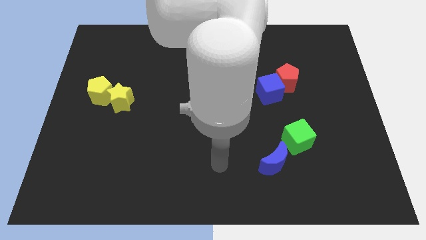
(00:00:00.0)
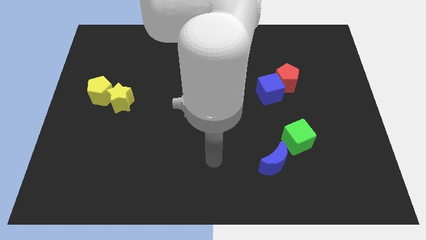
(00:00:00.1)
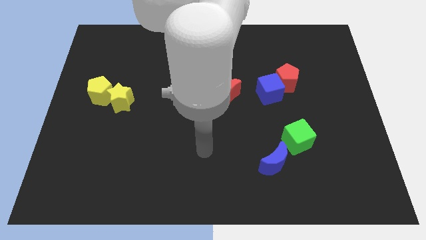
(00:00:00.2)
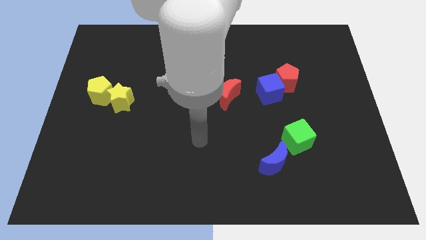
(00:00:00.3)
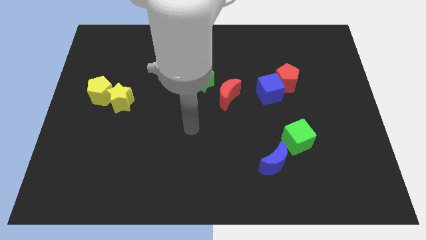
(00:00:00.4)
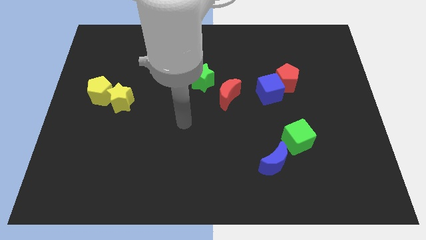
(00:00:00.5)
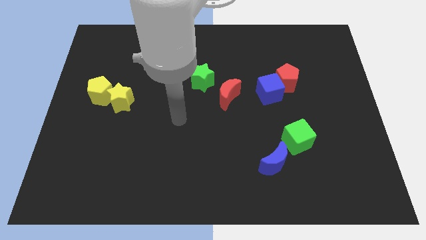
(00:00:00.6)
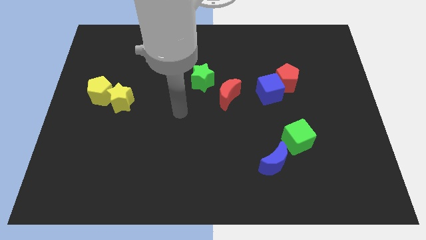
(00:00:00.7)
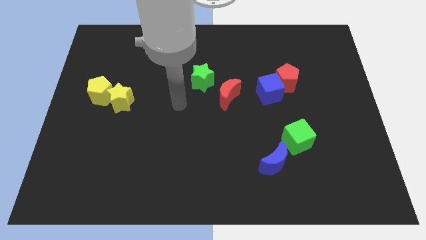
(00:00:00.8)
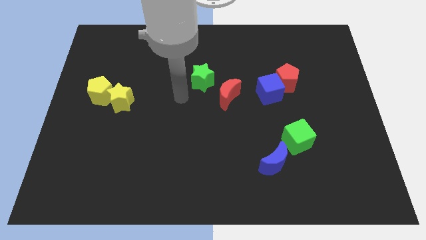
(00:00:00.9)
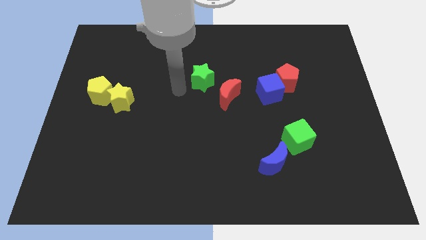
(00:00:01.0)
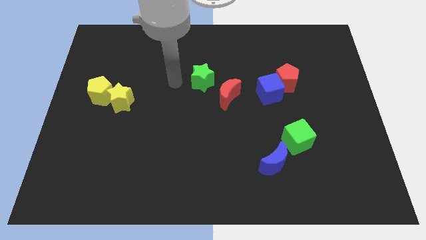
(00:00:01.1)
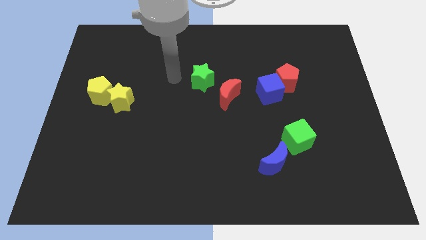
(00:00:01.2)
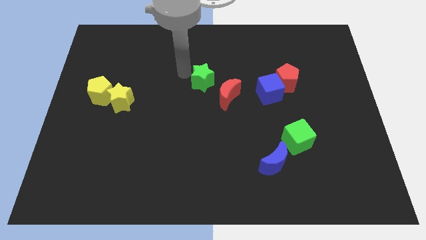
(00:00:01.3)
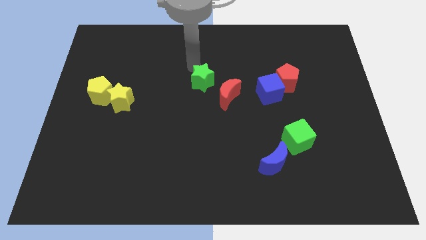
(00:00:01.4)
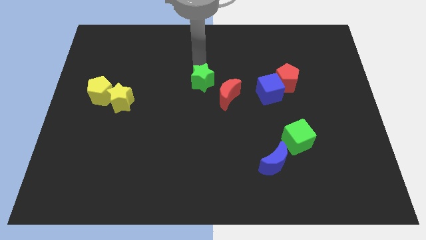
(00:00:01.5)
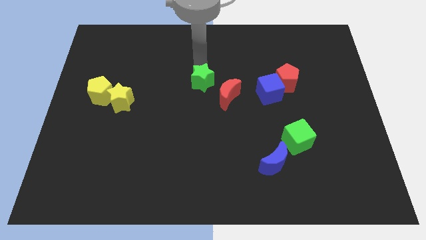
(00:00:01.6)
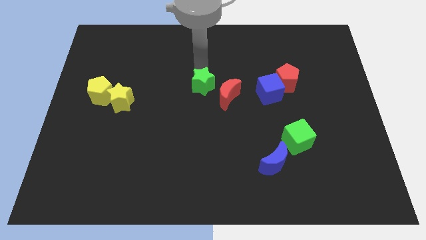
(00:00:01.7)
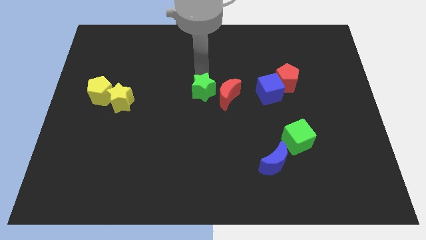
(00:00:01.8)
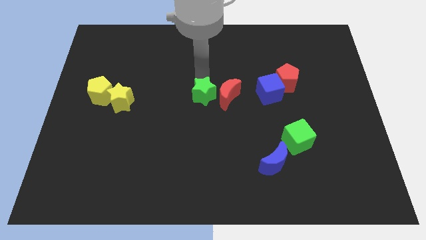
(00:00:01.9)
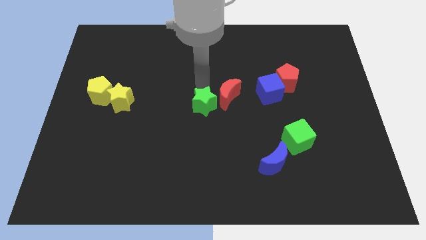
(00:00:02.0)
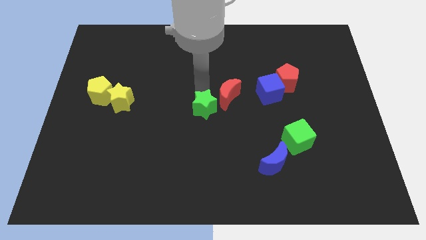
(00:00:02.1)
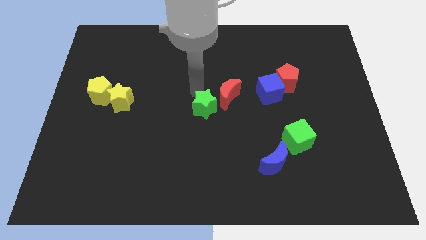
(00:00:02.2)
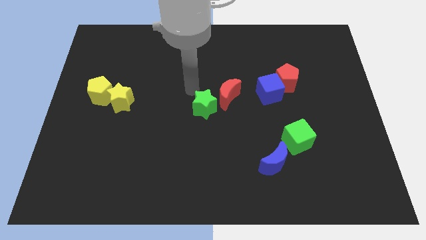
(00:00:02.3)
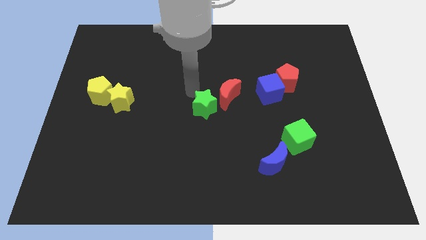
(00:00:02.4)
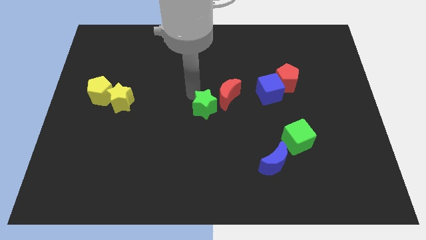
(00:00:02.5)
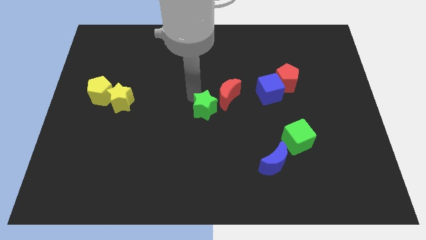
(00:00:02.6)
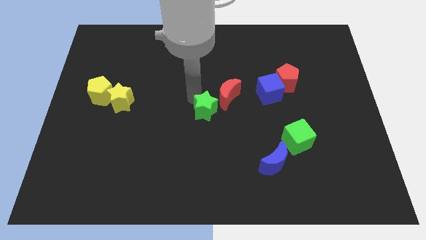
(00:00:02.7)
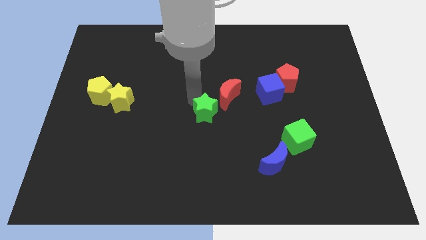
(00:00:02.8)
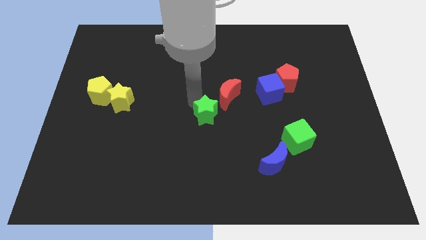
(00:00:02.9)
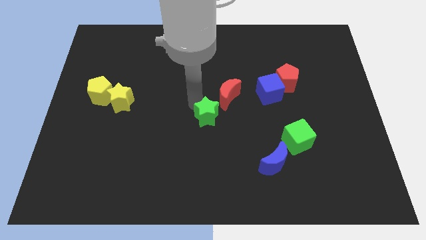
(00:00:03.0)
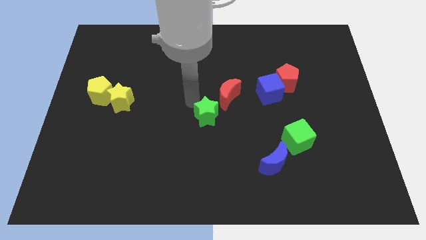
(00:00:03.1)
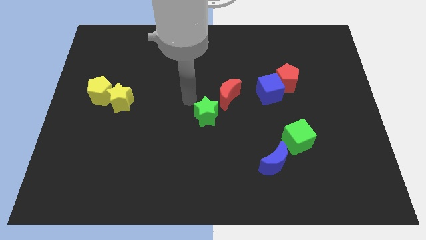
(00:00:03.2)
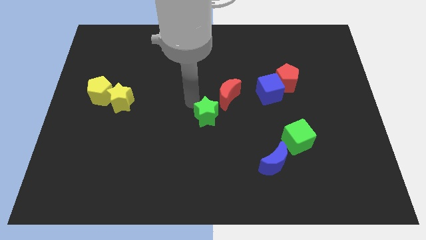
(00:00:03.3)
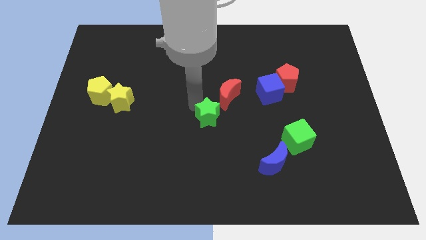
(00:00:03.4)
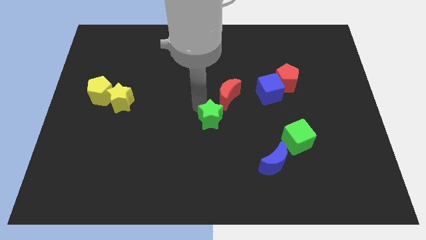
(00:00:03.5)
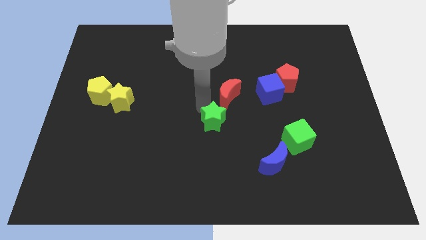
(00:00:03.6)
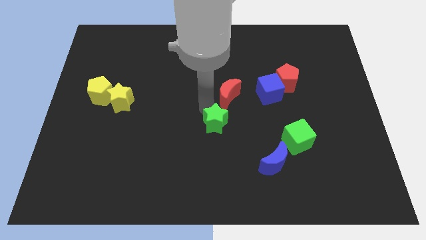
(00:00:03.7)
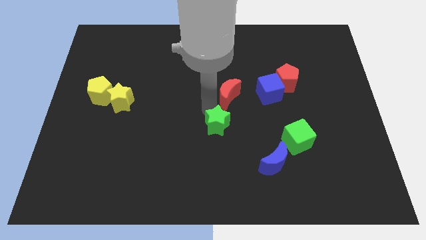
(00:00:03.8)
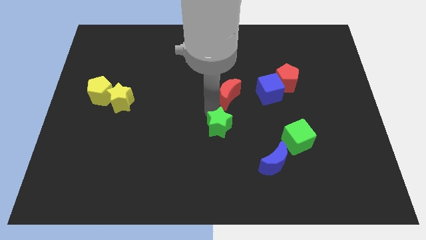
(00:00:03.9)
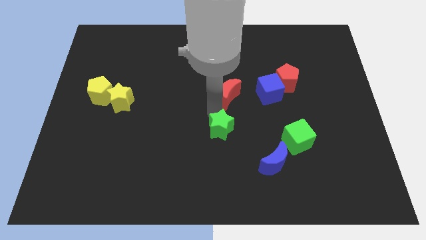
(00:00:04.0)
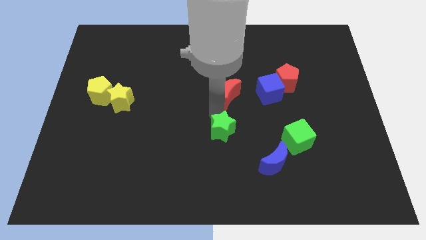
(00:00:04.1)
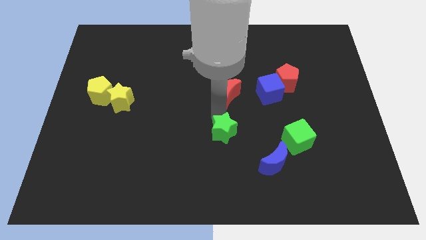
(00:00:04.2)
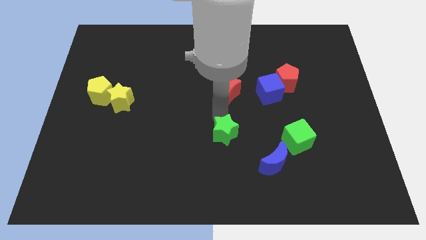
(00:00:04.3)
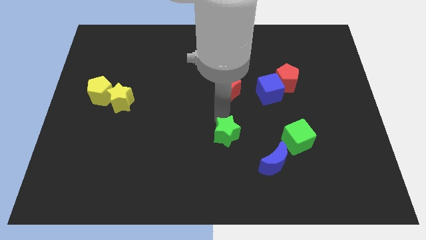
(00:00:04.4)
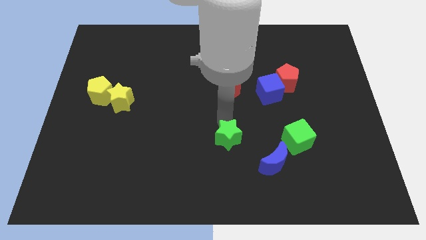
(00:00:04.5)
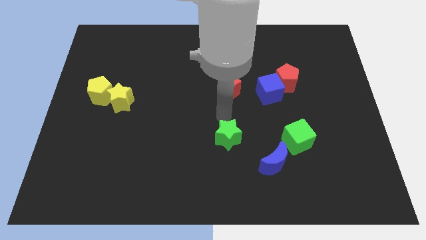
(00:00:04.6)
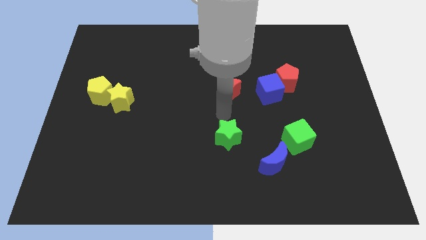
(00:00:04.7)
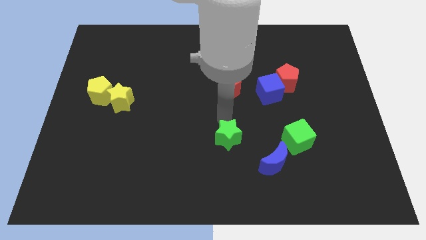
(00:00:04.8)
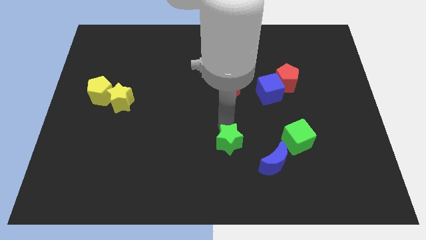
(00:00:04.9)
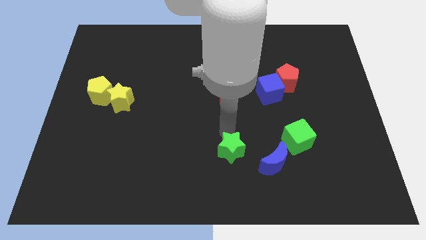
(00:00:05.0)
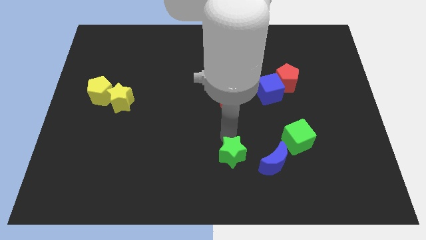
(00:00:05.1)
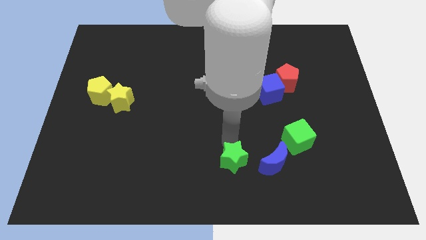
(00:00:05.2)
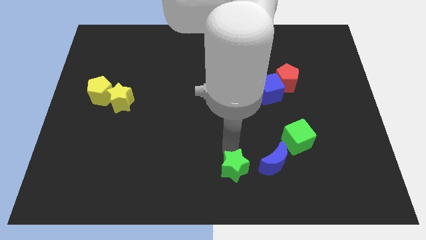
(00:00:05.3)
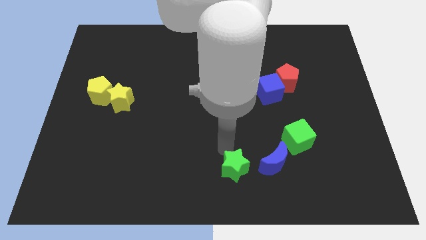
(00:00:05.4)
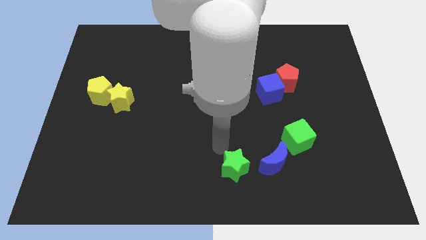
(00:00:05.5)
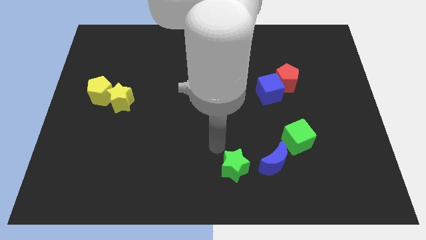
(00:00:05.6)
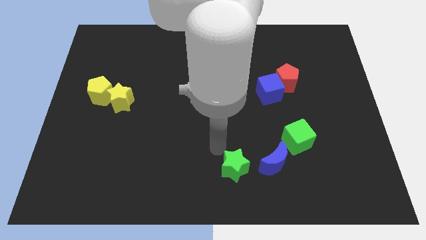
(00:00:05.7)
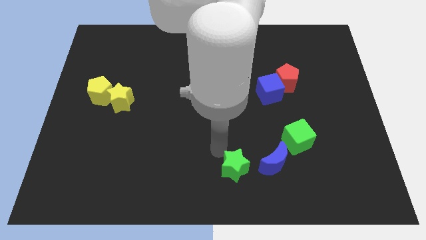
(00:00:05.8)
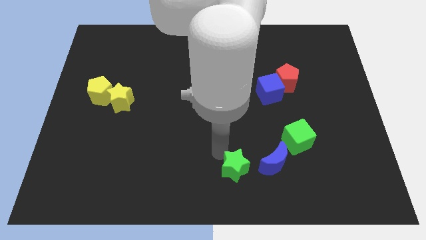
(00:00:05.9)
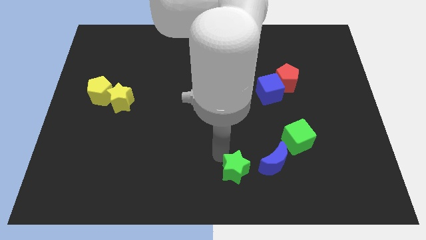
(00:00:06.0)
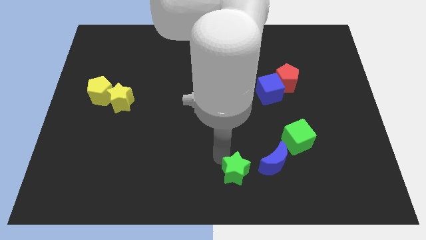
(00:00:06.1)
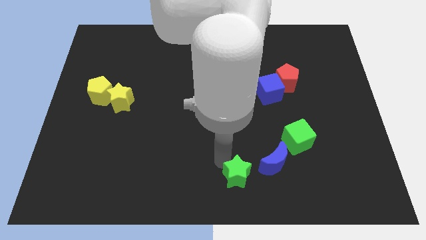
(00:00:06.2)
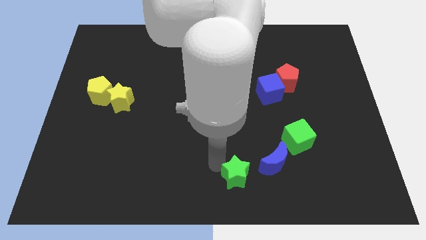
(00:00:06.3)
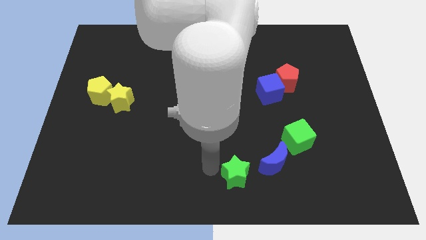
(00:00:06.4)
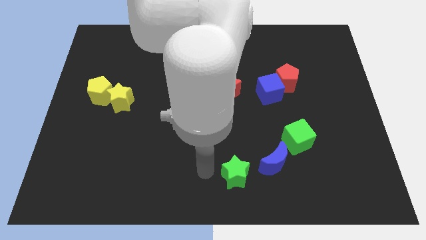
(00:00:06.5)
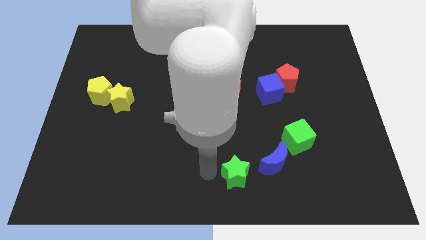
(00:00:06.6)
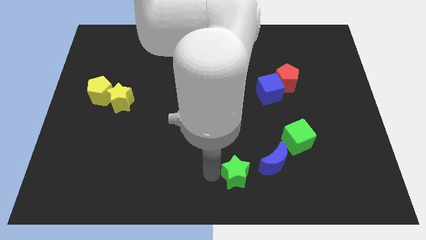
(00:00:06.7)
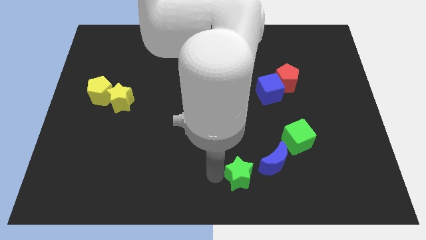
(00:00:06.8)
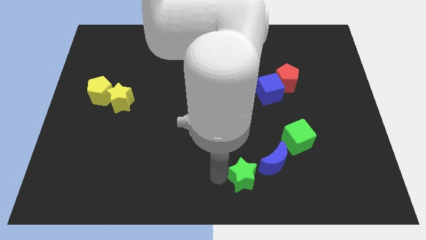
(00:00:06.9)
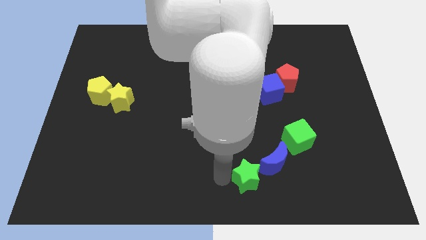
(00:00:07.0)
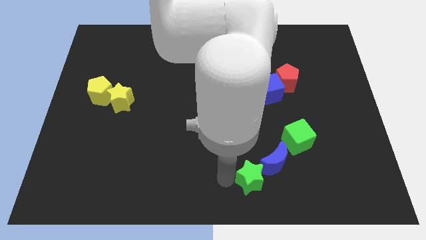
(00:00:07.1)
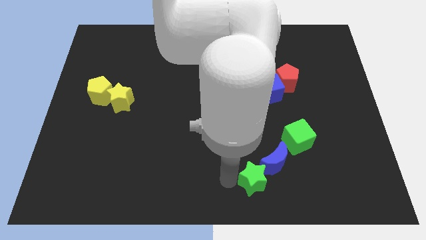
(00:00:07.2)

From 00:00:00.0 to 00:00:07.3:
push the green star downwards and to the right diagonally

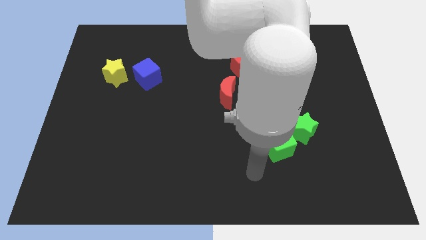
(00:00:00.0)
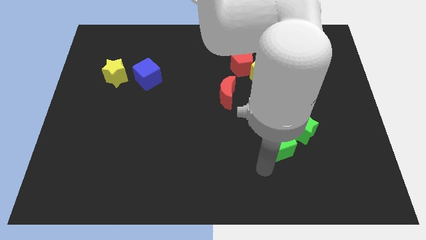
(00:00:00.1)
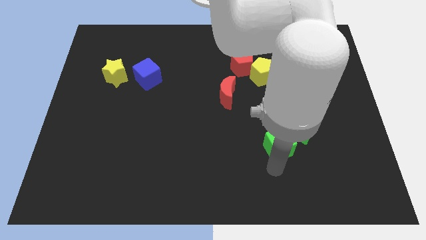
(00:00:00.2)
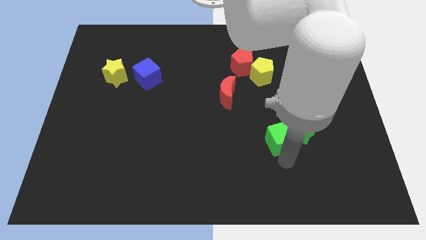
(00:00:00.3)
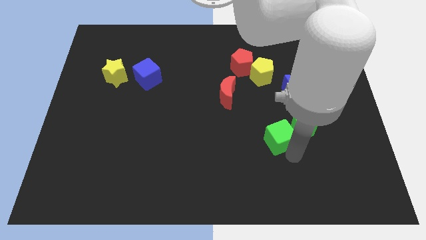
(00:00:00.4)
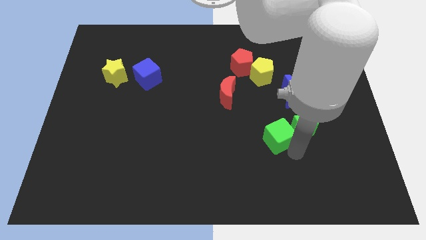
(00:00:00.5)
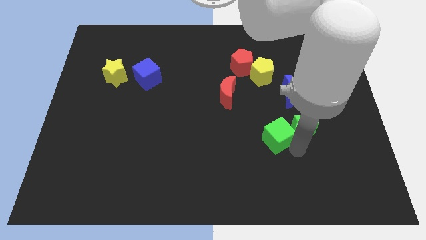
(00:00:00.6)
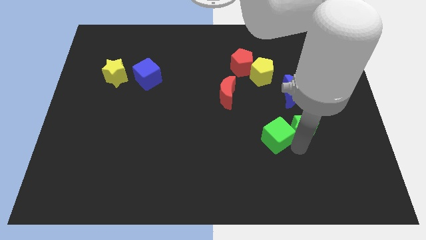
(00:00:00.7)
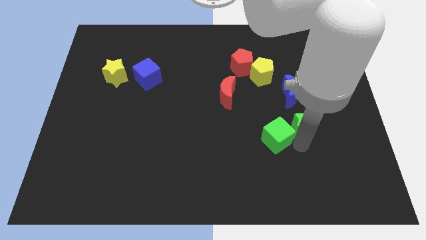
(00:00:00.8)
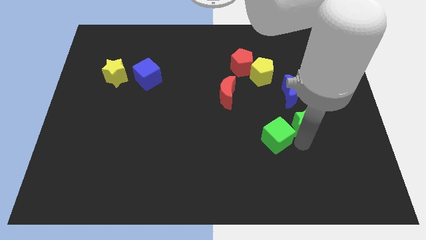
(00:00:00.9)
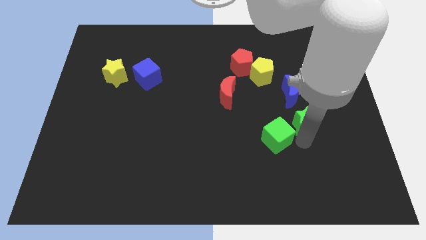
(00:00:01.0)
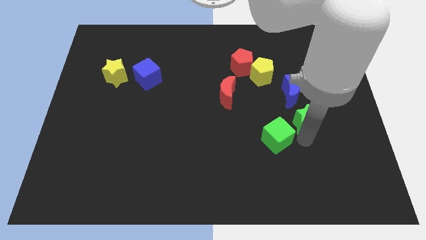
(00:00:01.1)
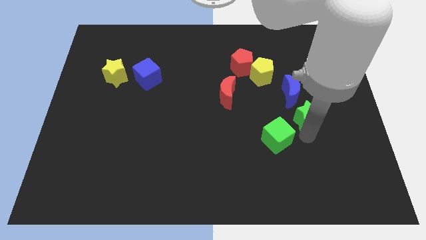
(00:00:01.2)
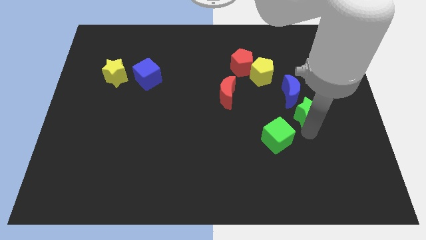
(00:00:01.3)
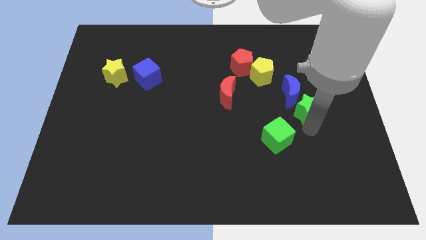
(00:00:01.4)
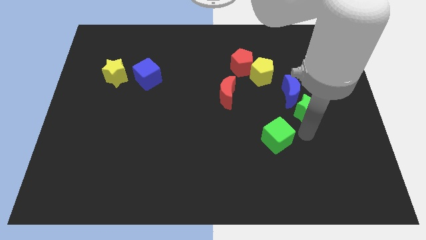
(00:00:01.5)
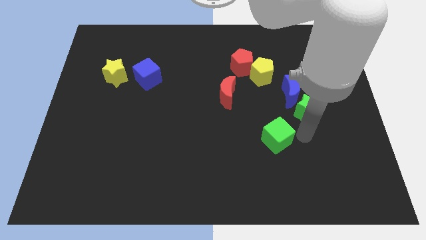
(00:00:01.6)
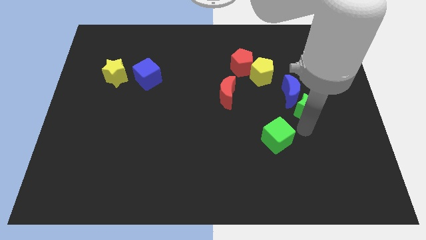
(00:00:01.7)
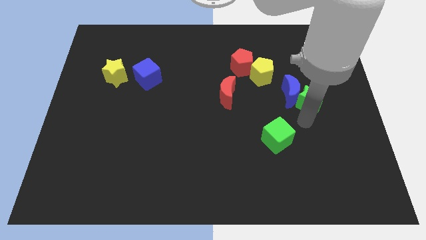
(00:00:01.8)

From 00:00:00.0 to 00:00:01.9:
push the green star upwards a little bit
